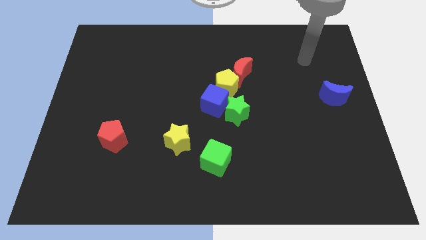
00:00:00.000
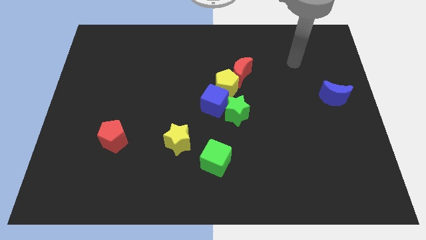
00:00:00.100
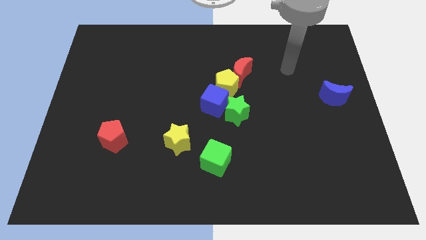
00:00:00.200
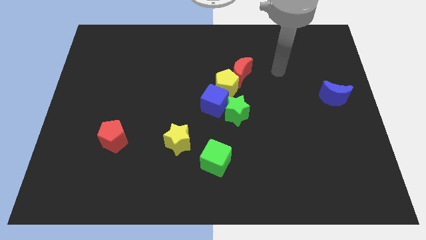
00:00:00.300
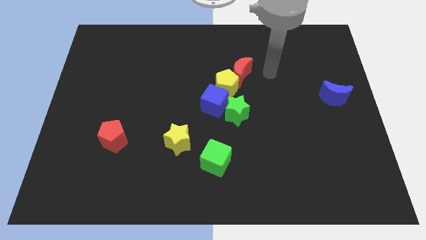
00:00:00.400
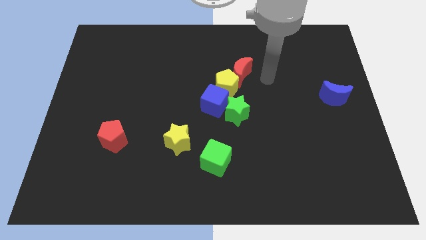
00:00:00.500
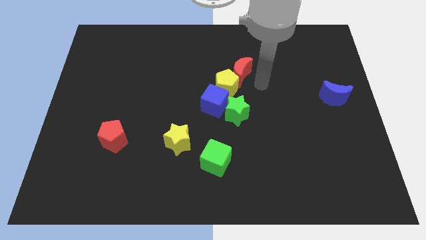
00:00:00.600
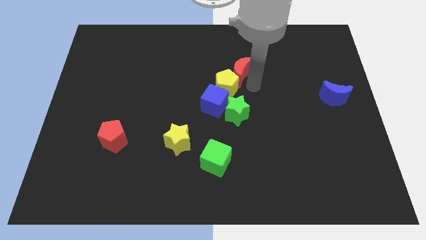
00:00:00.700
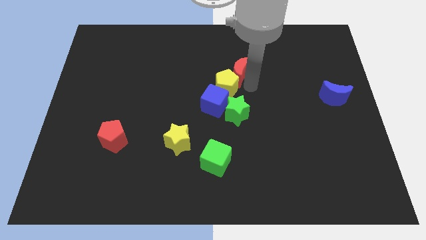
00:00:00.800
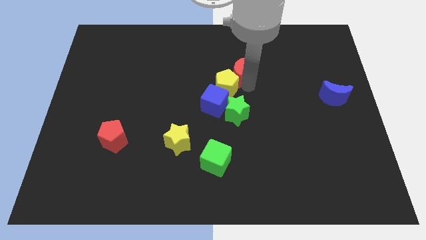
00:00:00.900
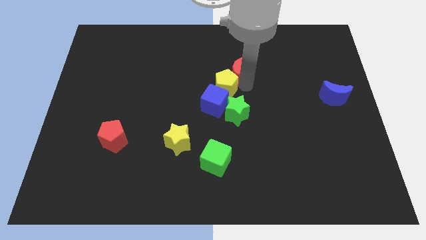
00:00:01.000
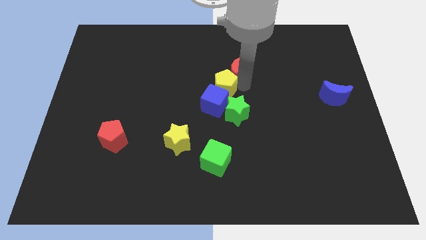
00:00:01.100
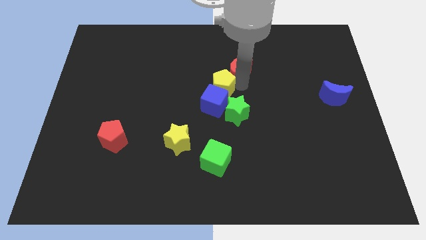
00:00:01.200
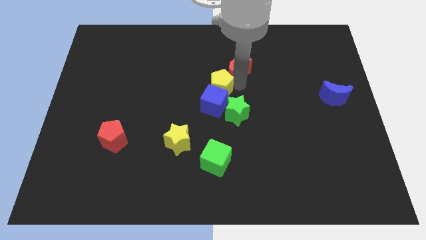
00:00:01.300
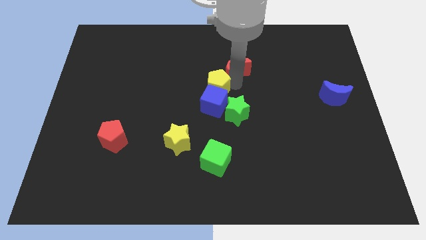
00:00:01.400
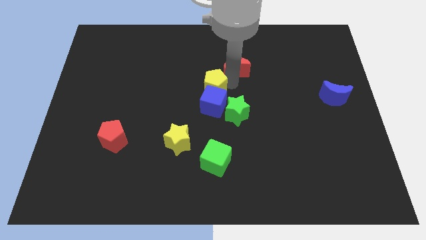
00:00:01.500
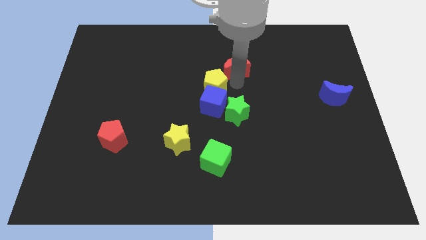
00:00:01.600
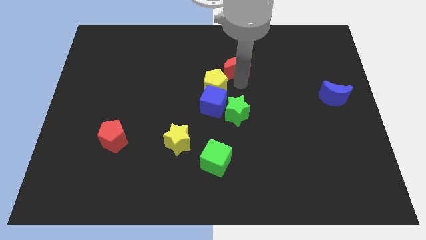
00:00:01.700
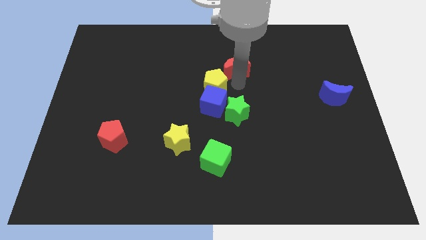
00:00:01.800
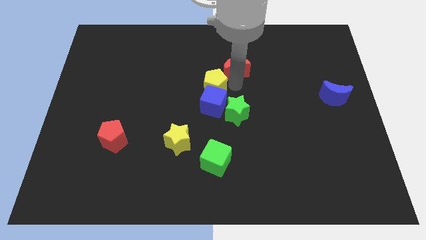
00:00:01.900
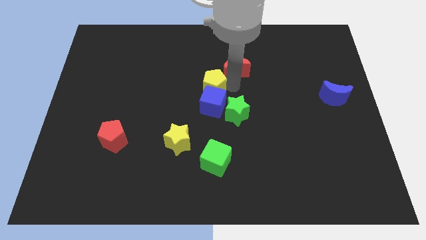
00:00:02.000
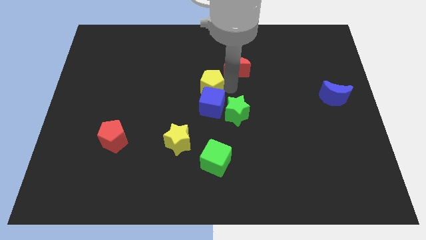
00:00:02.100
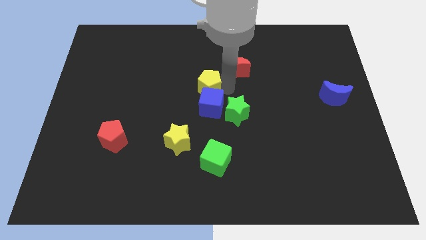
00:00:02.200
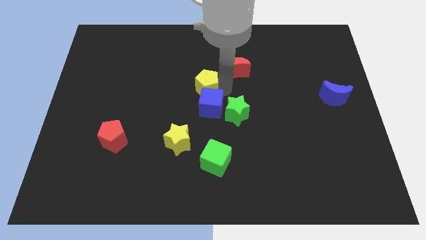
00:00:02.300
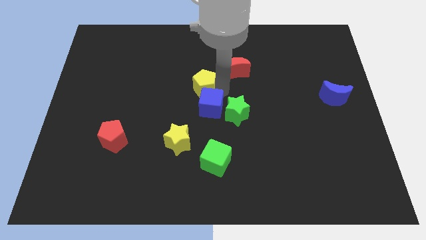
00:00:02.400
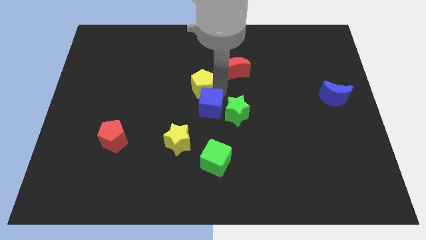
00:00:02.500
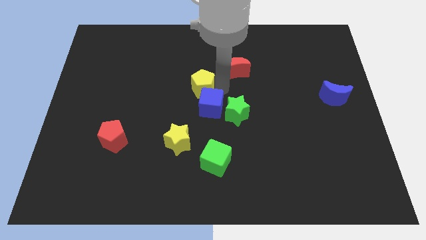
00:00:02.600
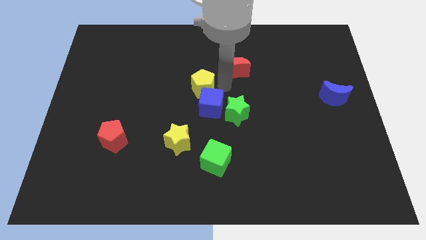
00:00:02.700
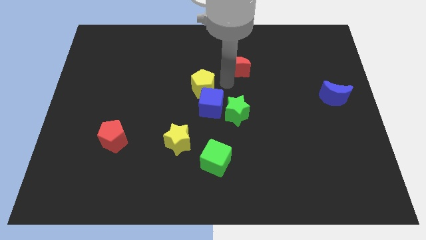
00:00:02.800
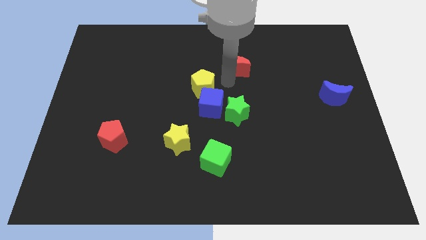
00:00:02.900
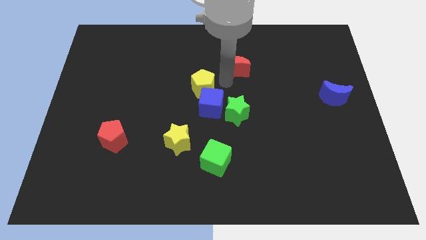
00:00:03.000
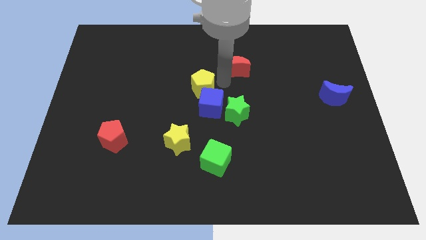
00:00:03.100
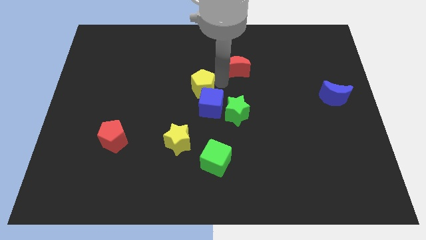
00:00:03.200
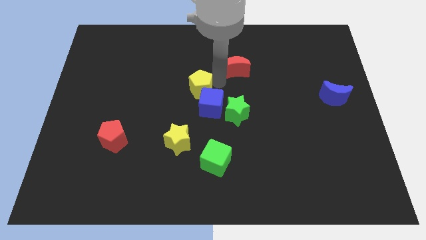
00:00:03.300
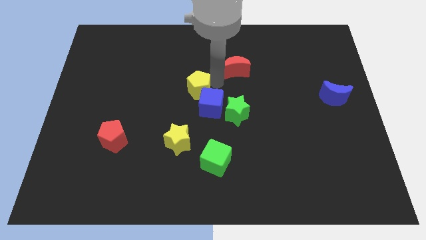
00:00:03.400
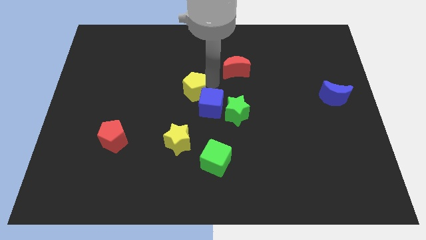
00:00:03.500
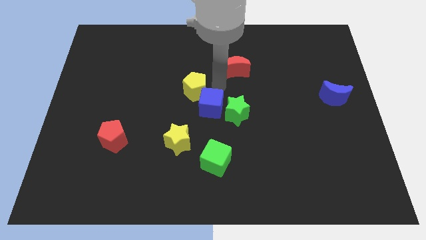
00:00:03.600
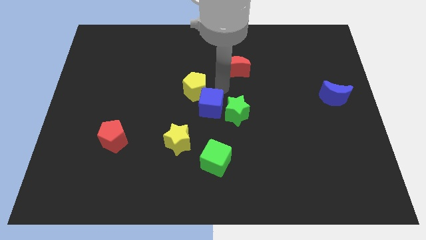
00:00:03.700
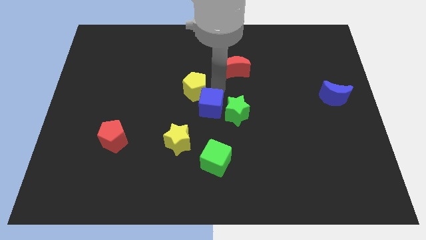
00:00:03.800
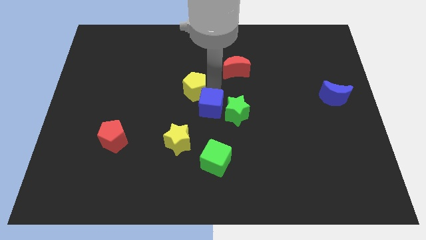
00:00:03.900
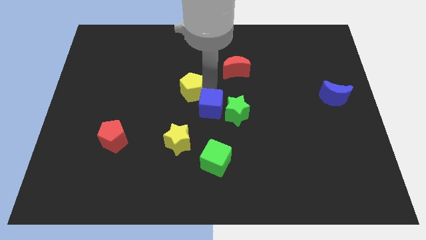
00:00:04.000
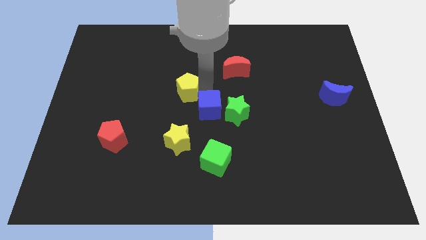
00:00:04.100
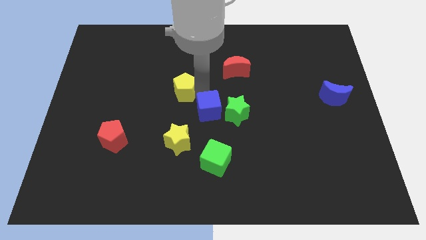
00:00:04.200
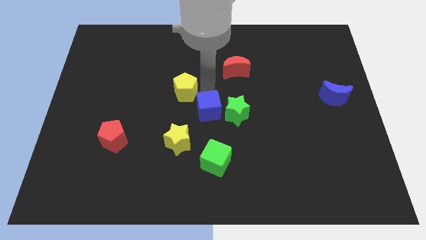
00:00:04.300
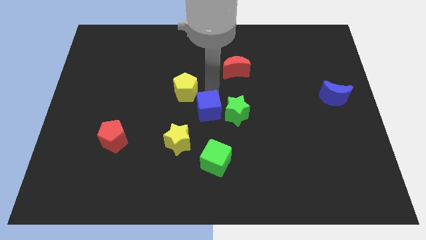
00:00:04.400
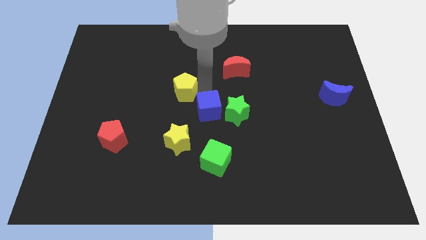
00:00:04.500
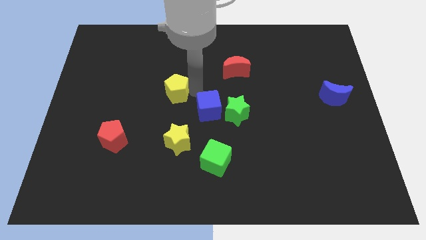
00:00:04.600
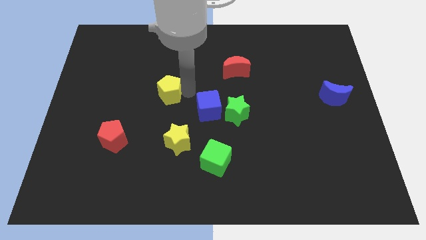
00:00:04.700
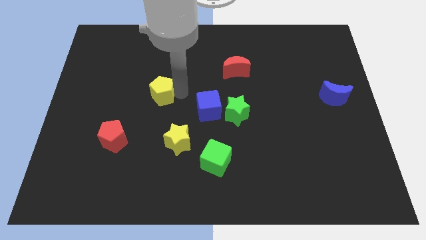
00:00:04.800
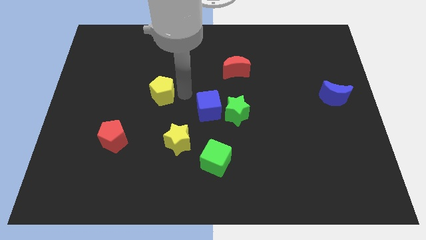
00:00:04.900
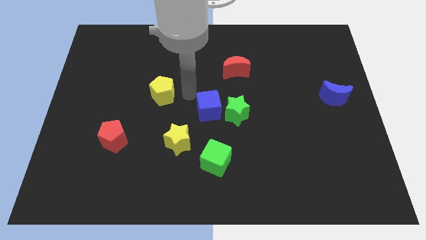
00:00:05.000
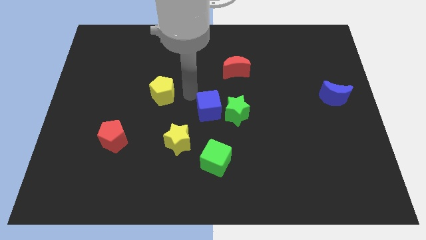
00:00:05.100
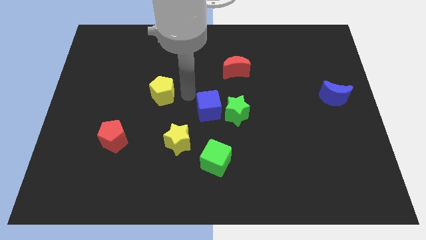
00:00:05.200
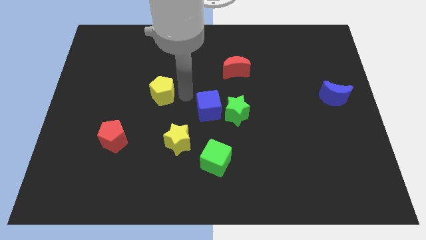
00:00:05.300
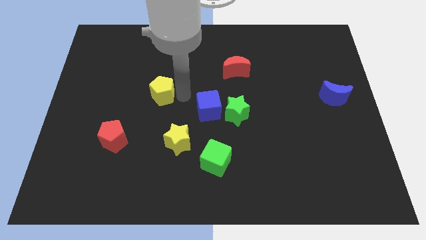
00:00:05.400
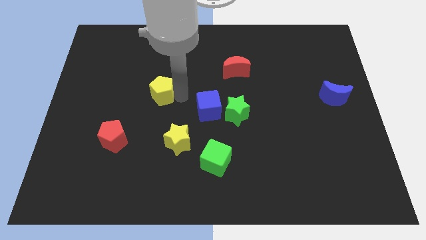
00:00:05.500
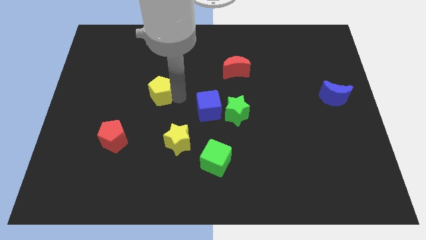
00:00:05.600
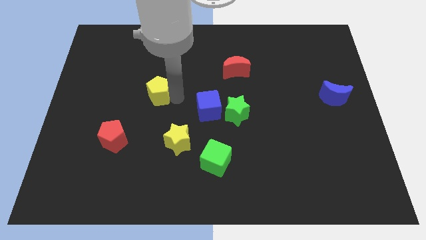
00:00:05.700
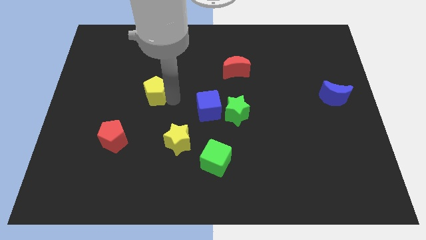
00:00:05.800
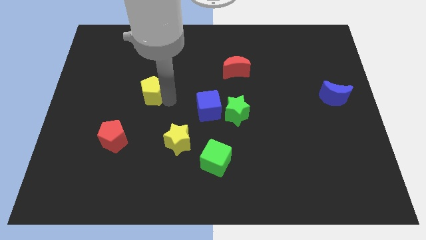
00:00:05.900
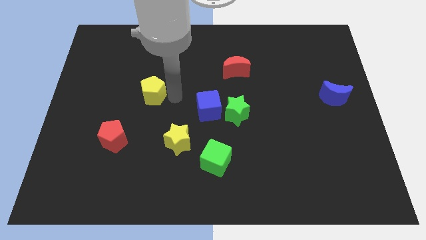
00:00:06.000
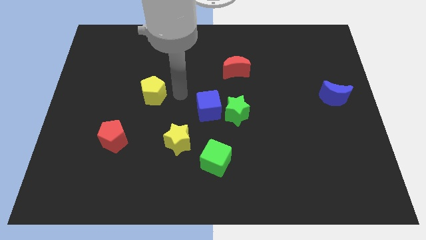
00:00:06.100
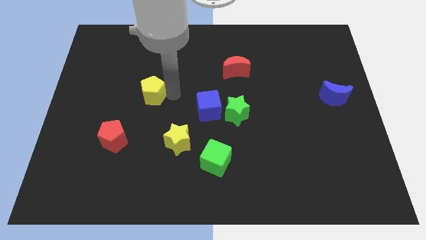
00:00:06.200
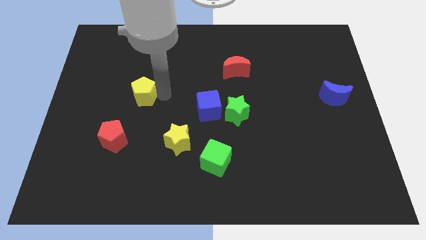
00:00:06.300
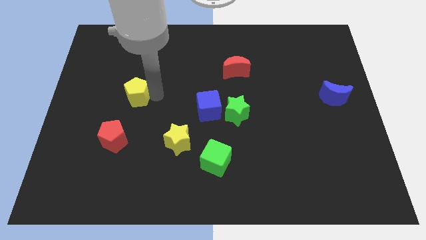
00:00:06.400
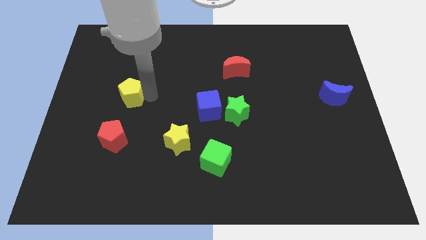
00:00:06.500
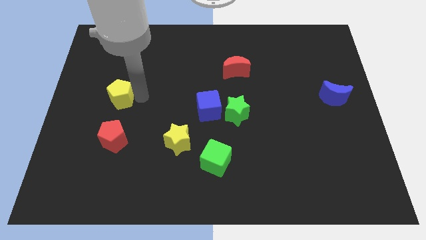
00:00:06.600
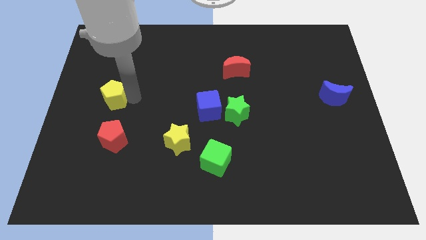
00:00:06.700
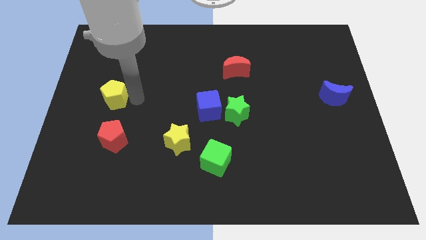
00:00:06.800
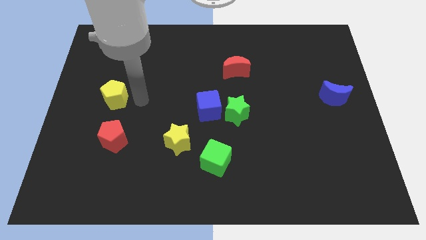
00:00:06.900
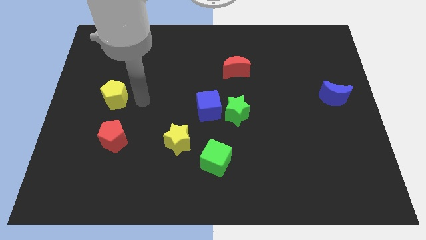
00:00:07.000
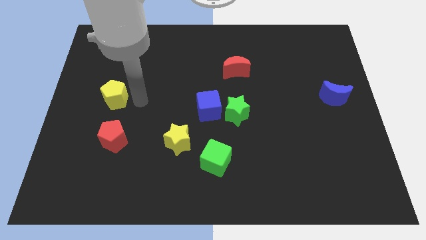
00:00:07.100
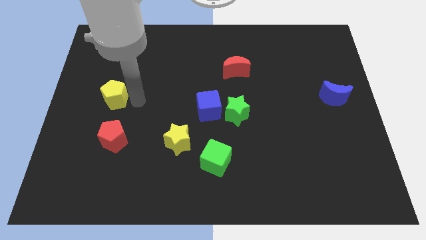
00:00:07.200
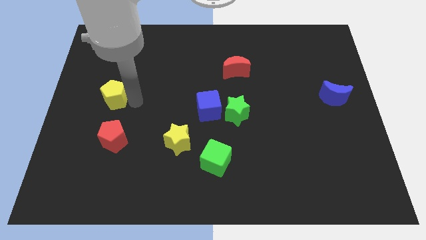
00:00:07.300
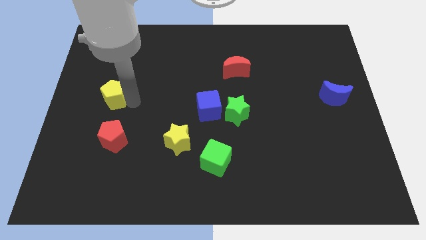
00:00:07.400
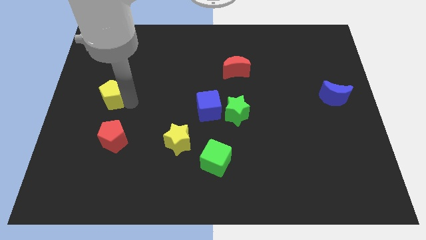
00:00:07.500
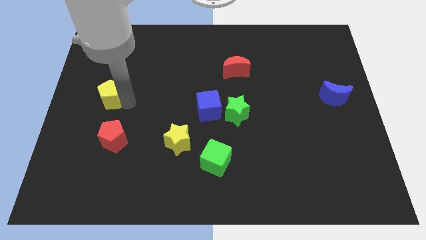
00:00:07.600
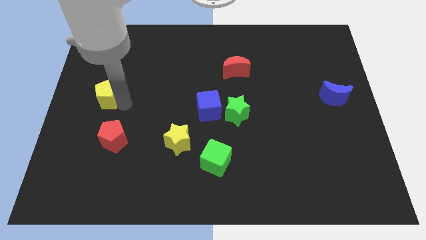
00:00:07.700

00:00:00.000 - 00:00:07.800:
slide the yellow pentagon to the center left
